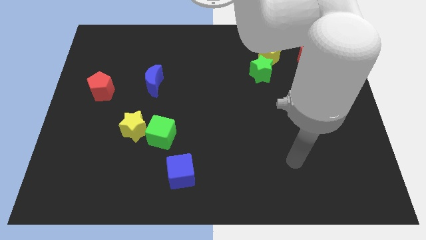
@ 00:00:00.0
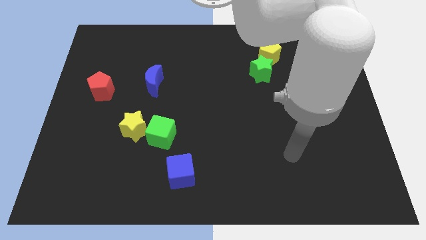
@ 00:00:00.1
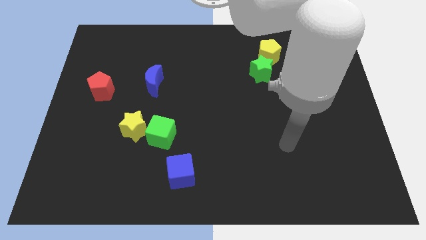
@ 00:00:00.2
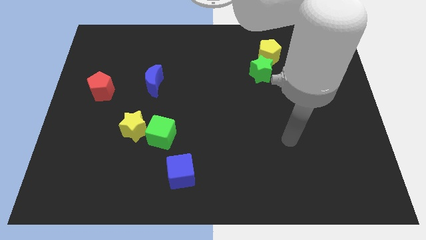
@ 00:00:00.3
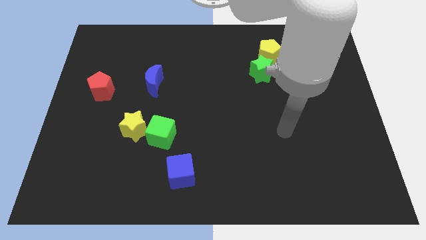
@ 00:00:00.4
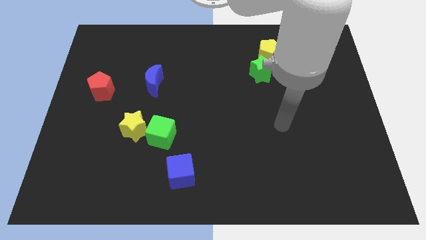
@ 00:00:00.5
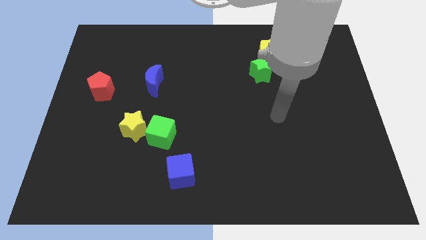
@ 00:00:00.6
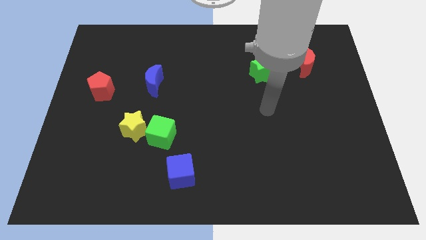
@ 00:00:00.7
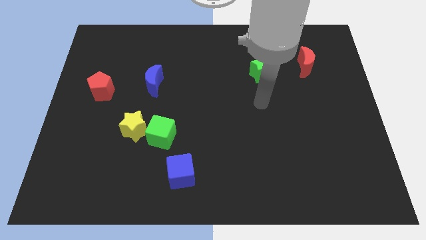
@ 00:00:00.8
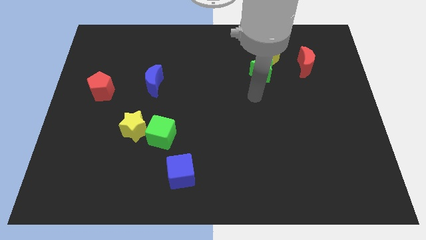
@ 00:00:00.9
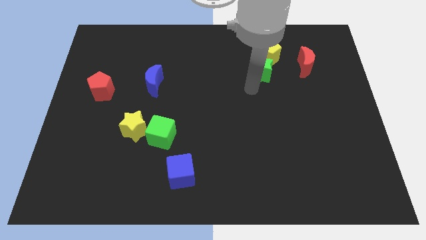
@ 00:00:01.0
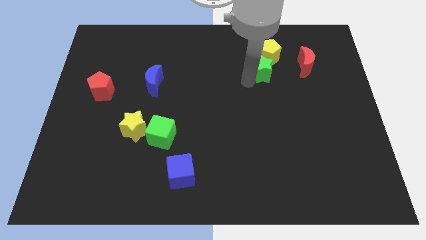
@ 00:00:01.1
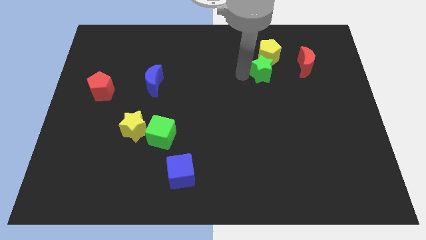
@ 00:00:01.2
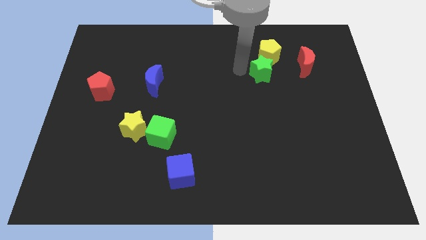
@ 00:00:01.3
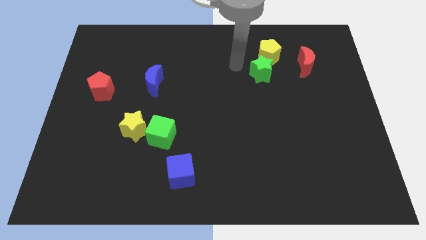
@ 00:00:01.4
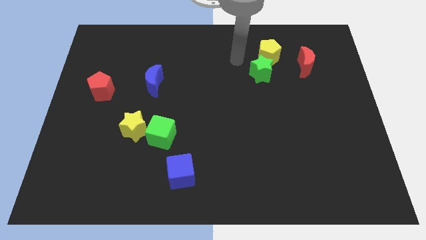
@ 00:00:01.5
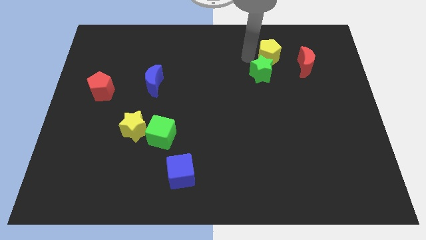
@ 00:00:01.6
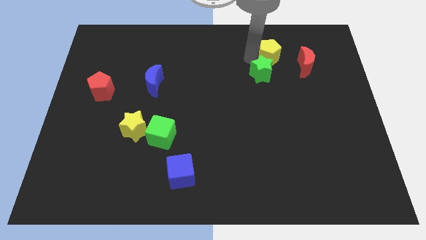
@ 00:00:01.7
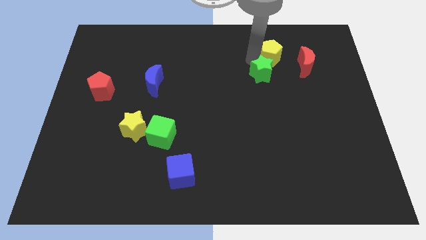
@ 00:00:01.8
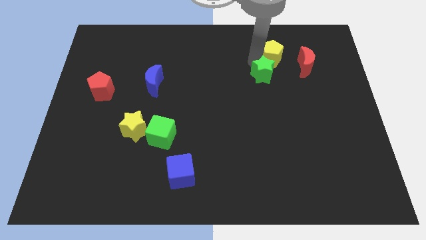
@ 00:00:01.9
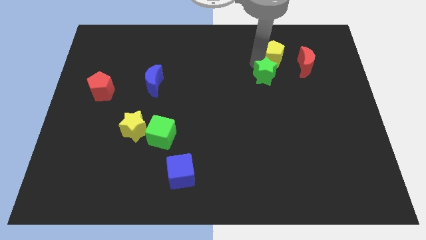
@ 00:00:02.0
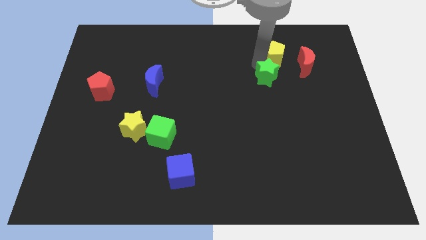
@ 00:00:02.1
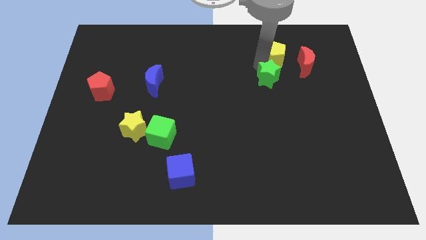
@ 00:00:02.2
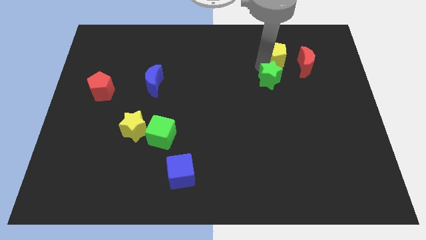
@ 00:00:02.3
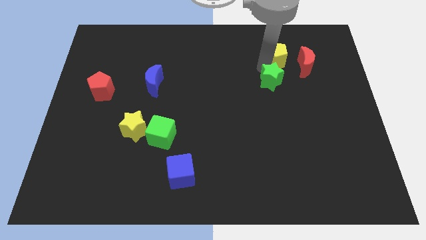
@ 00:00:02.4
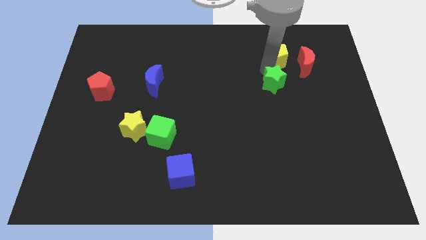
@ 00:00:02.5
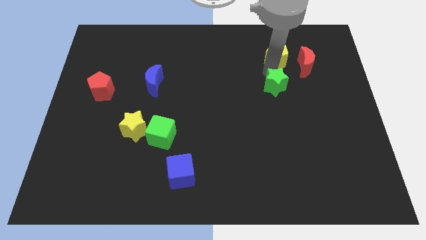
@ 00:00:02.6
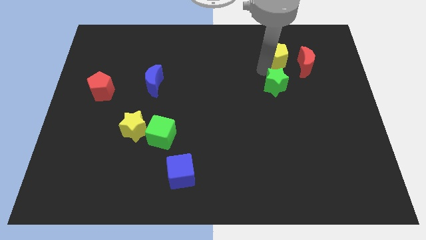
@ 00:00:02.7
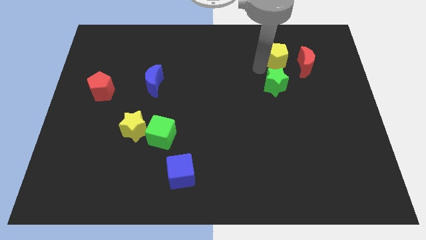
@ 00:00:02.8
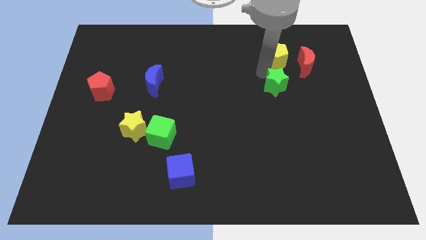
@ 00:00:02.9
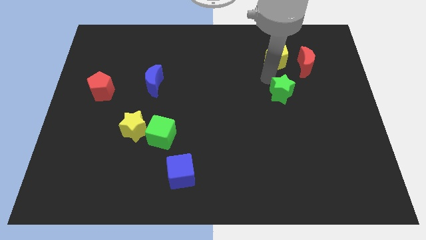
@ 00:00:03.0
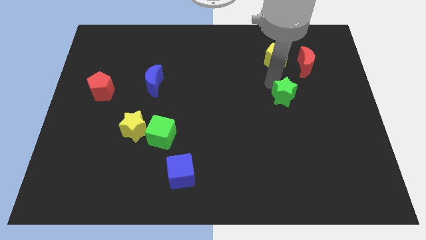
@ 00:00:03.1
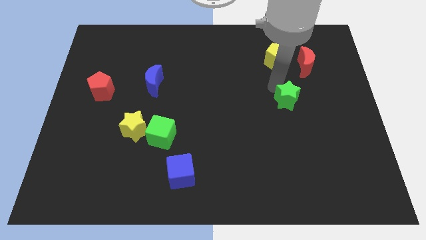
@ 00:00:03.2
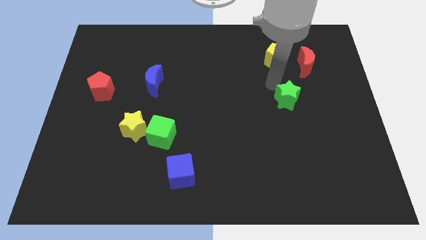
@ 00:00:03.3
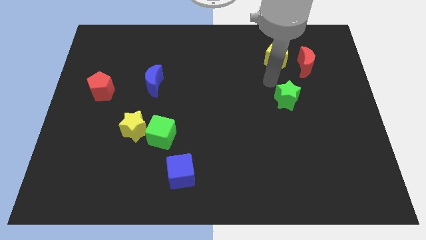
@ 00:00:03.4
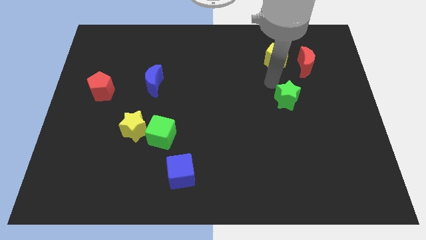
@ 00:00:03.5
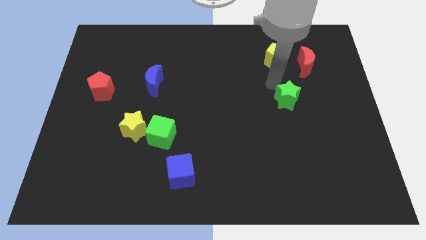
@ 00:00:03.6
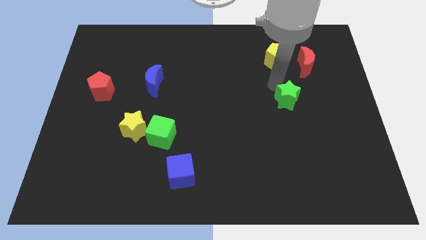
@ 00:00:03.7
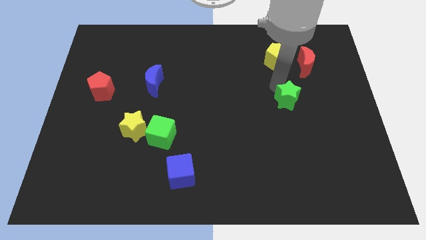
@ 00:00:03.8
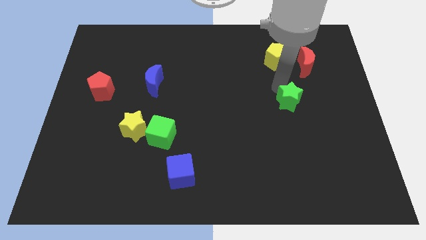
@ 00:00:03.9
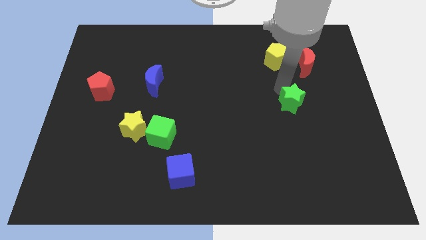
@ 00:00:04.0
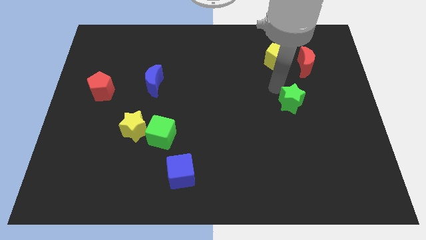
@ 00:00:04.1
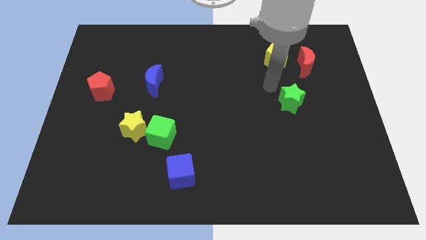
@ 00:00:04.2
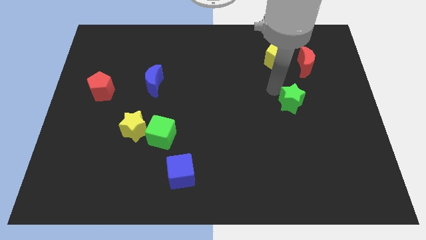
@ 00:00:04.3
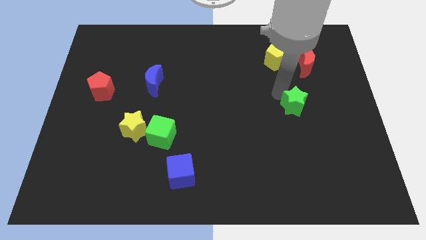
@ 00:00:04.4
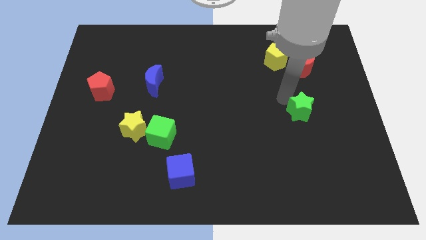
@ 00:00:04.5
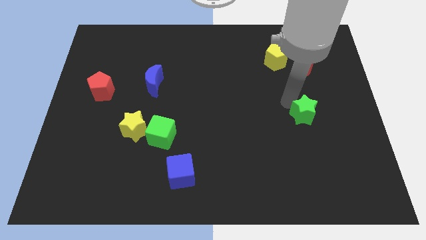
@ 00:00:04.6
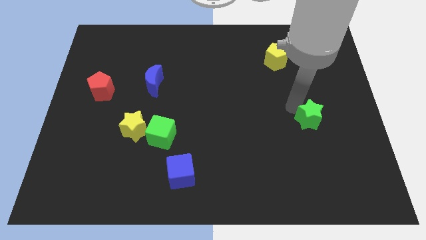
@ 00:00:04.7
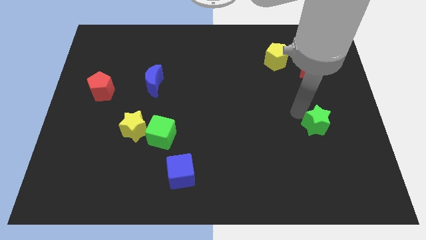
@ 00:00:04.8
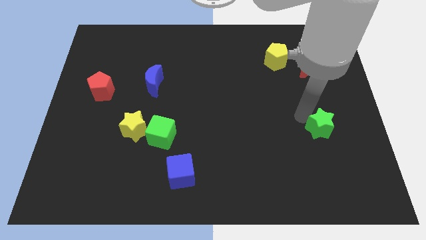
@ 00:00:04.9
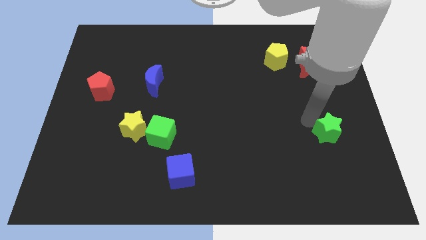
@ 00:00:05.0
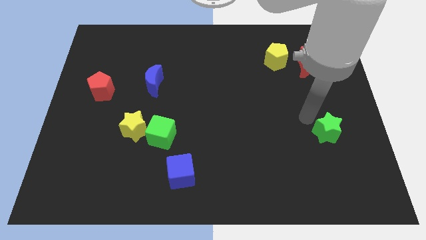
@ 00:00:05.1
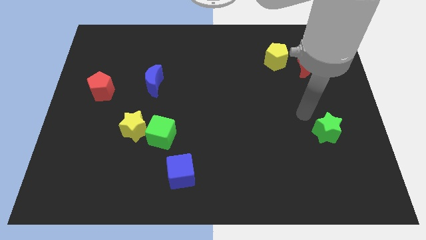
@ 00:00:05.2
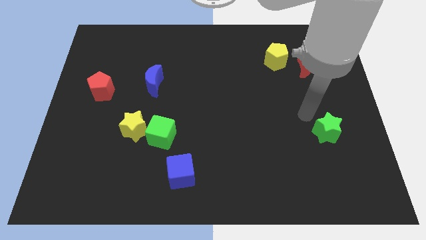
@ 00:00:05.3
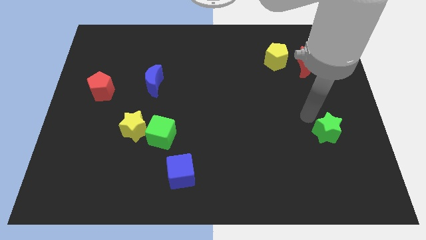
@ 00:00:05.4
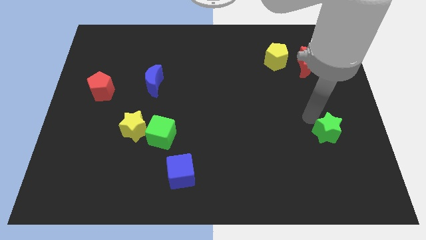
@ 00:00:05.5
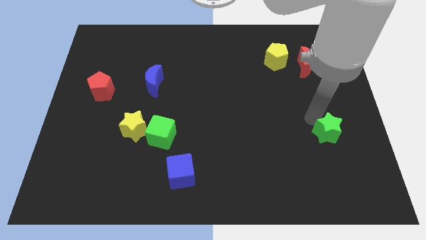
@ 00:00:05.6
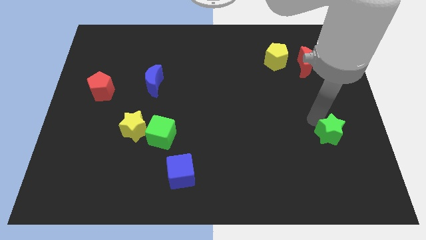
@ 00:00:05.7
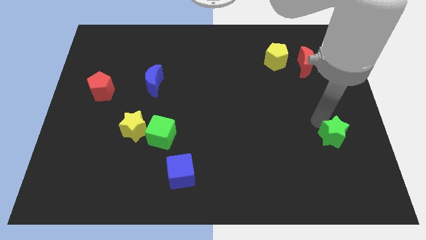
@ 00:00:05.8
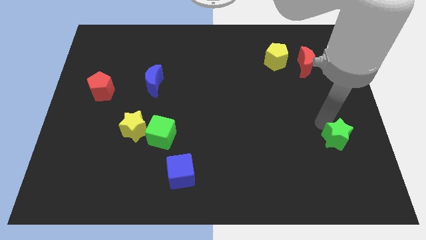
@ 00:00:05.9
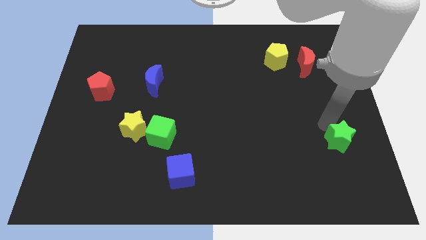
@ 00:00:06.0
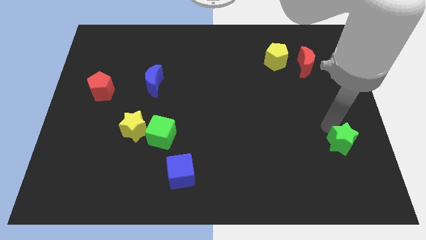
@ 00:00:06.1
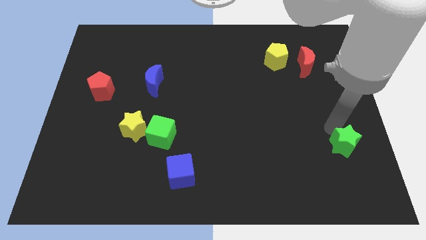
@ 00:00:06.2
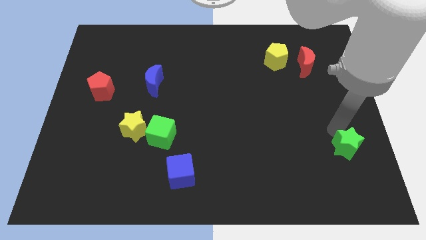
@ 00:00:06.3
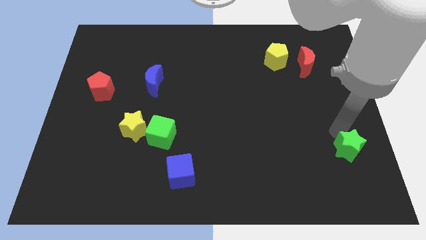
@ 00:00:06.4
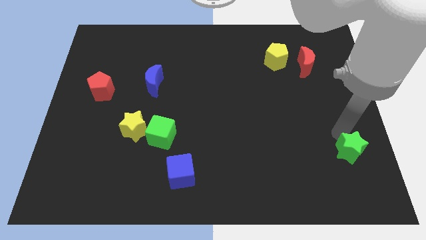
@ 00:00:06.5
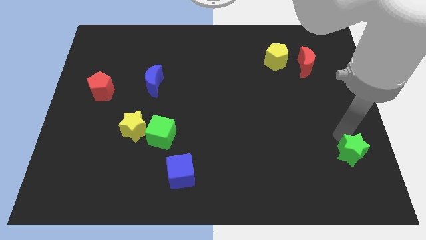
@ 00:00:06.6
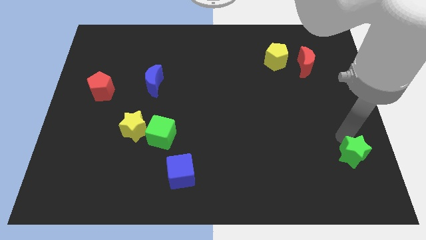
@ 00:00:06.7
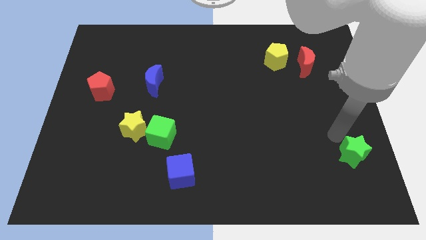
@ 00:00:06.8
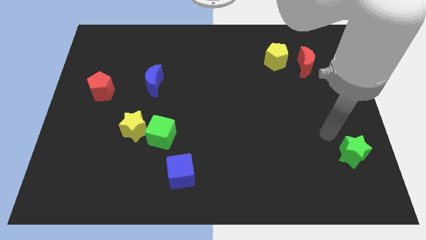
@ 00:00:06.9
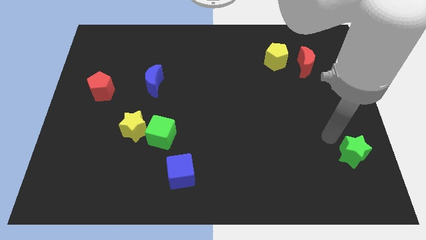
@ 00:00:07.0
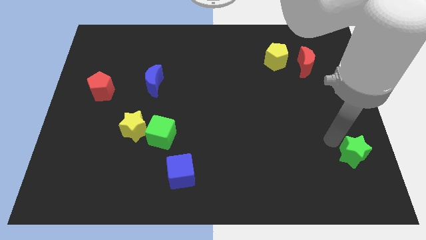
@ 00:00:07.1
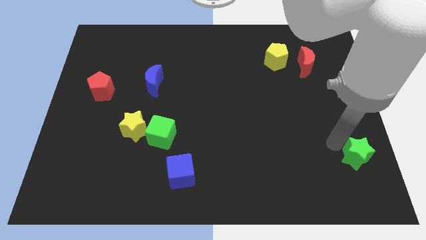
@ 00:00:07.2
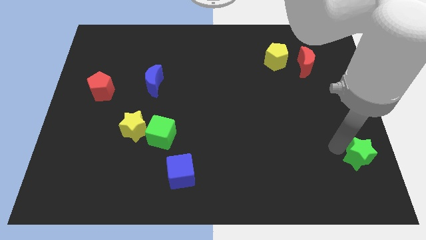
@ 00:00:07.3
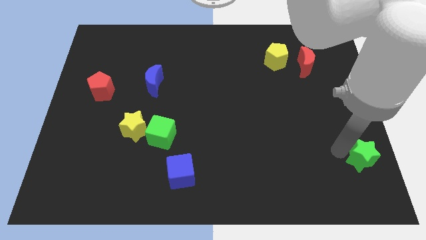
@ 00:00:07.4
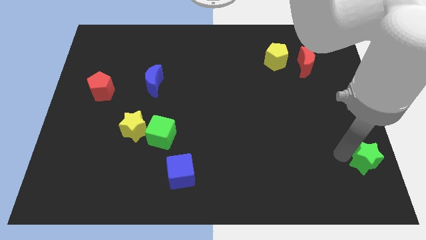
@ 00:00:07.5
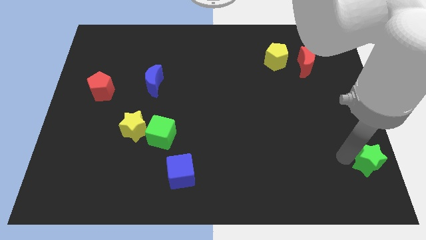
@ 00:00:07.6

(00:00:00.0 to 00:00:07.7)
slide the green star to the bottom right
